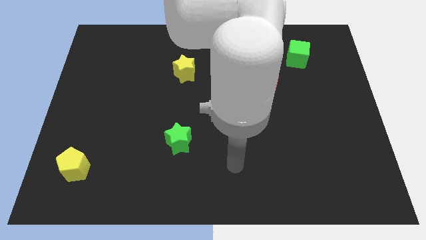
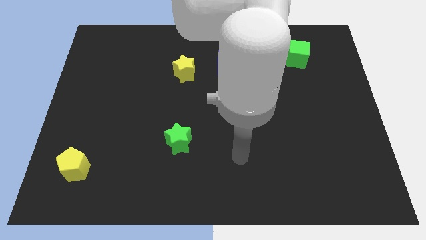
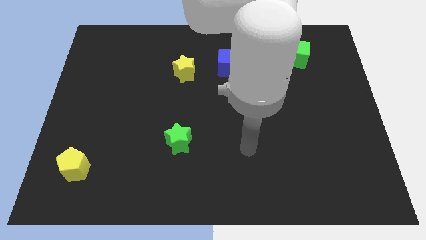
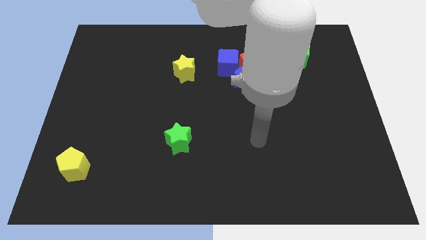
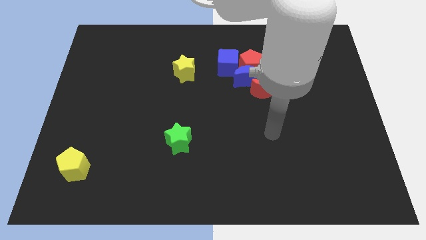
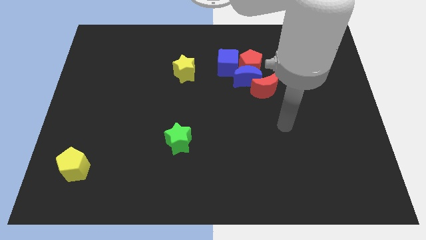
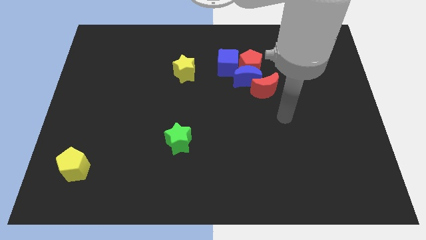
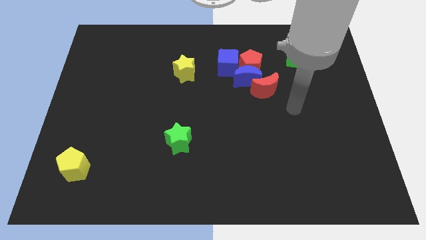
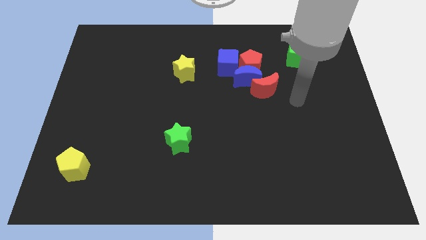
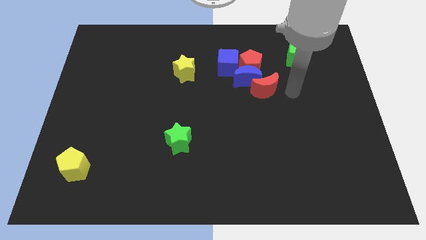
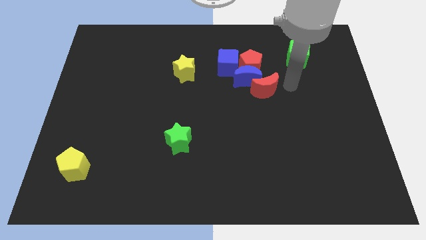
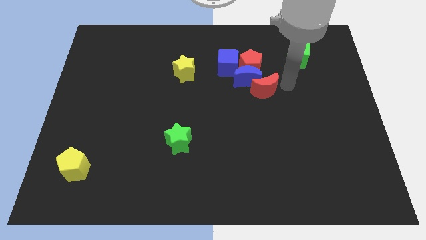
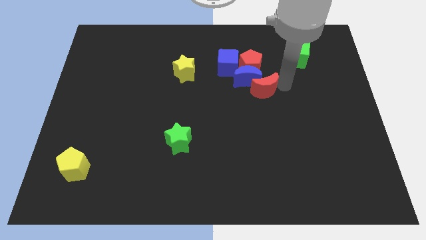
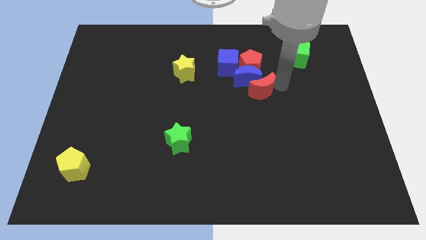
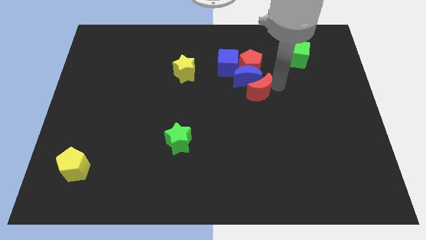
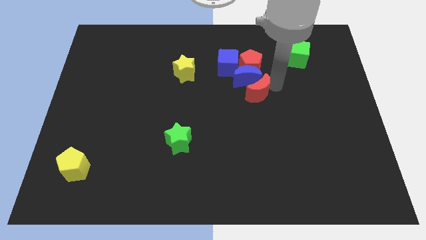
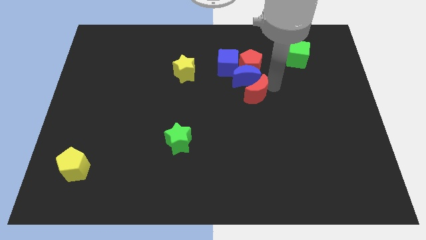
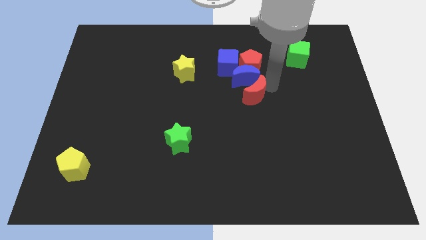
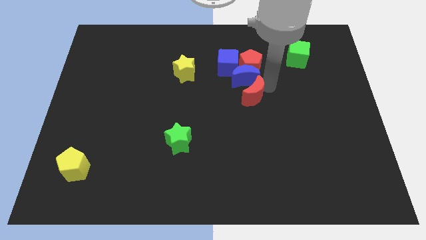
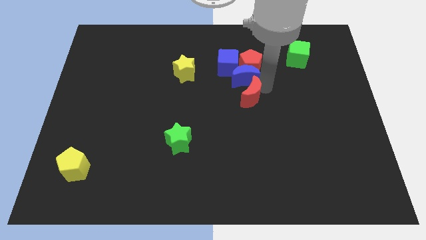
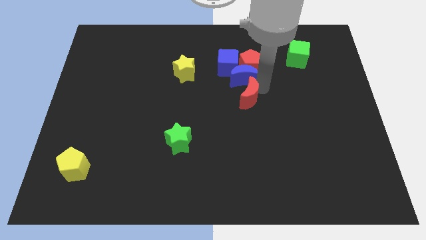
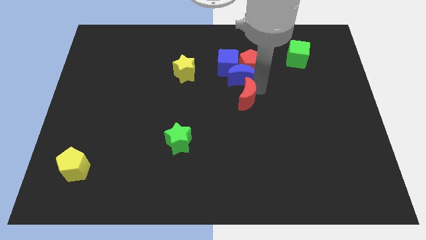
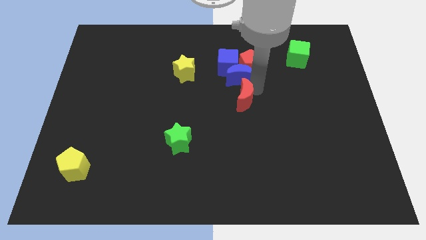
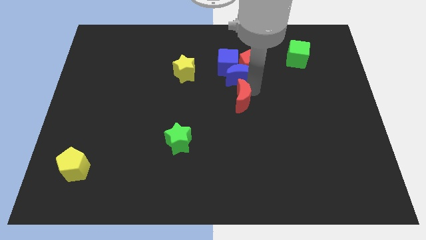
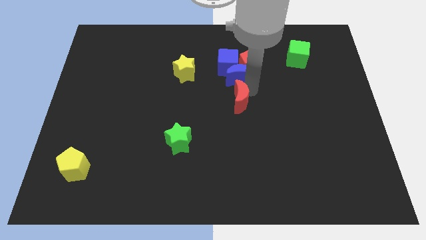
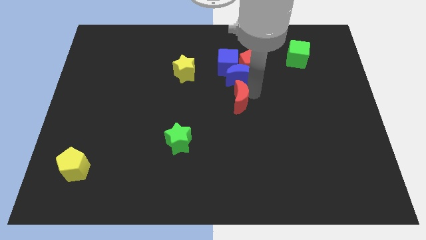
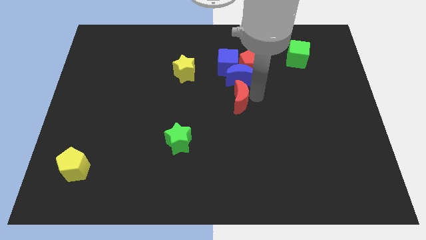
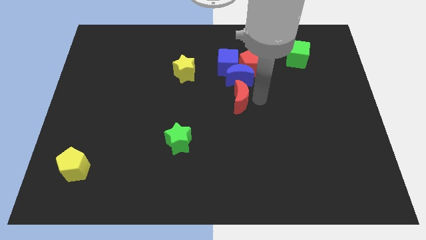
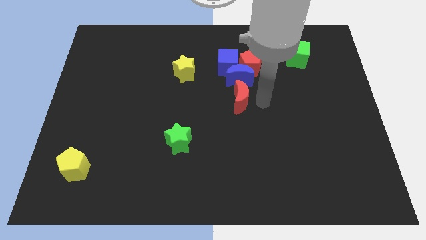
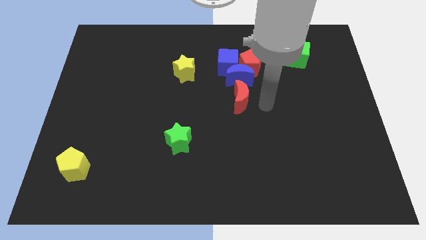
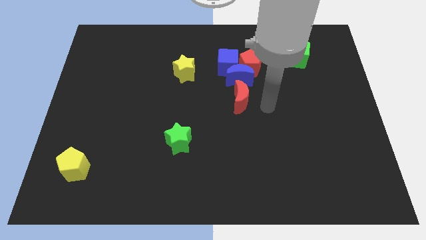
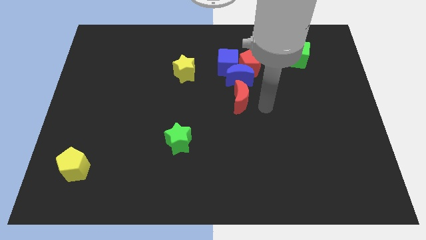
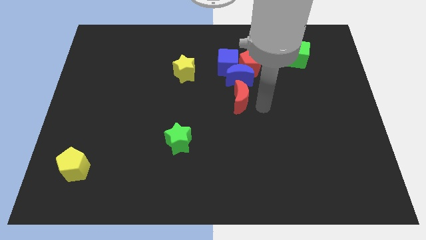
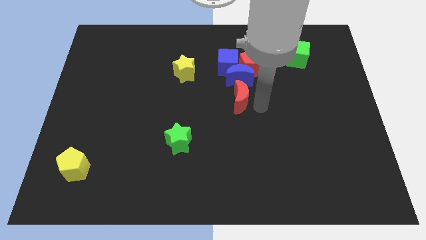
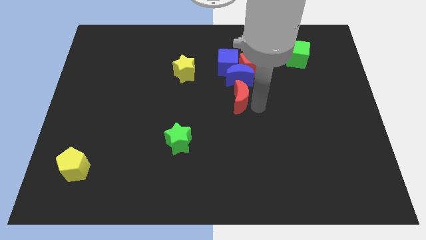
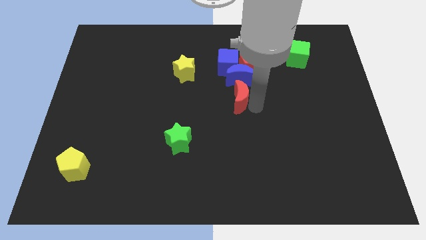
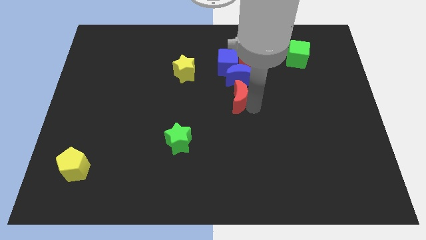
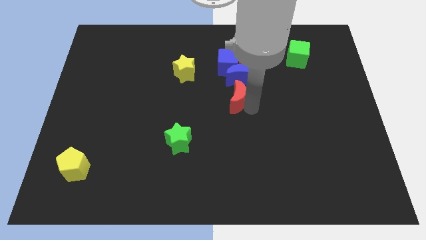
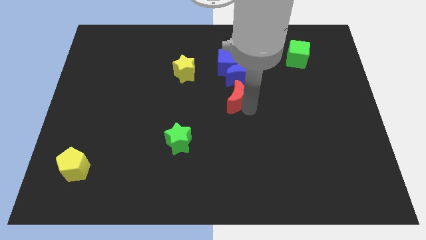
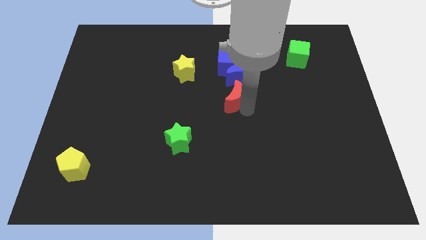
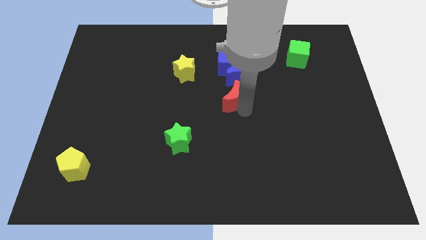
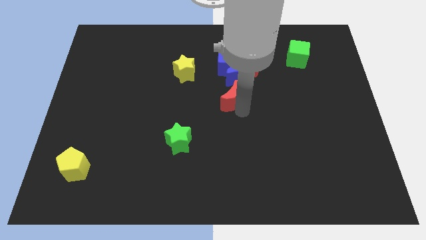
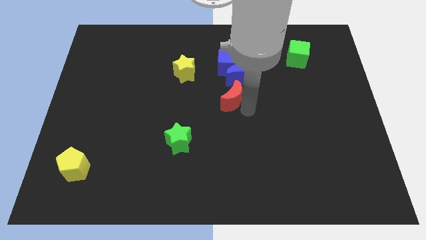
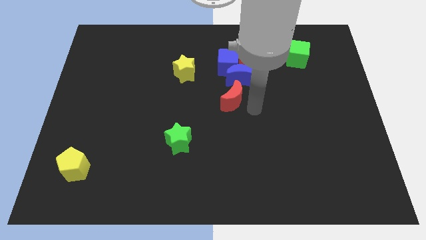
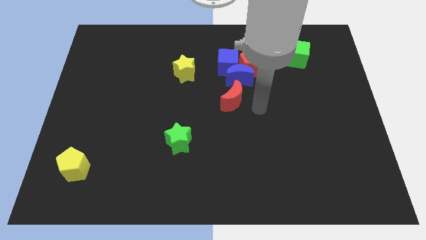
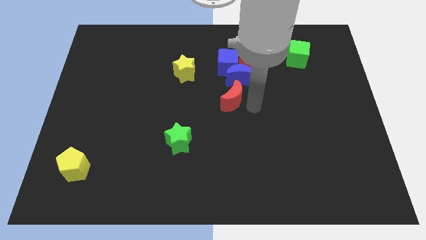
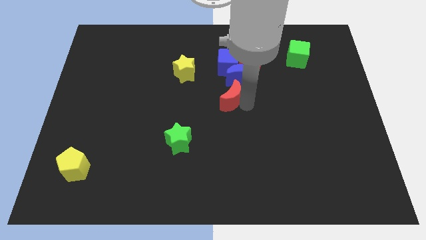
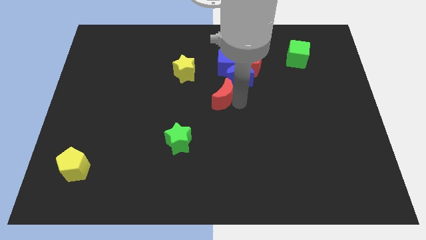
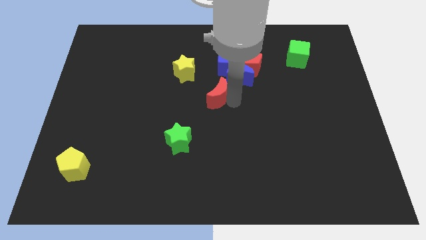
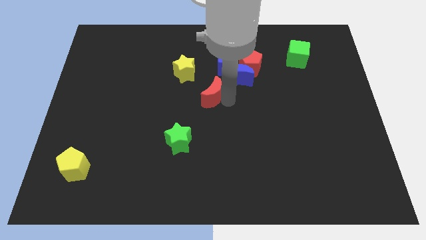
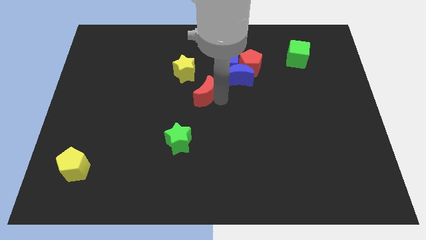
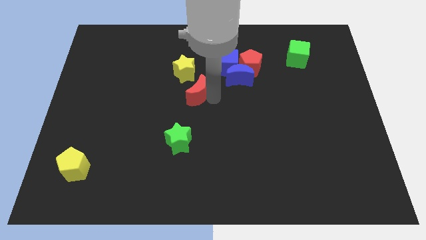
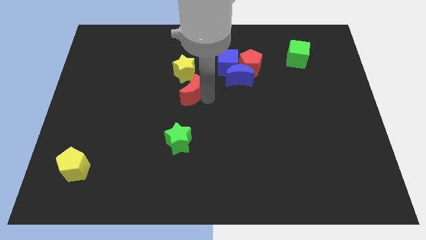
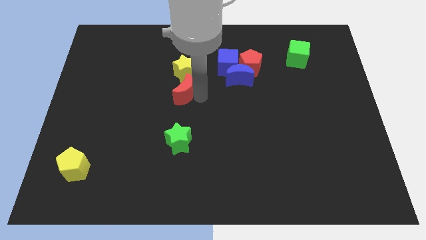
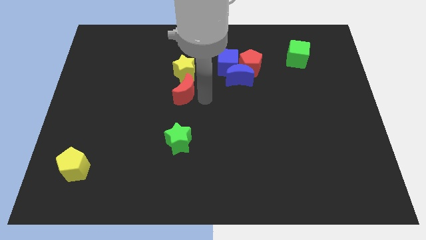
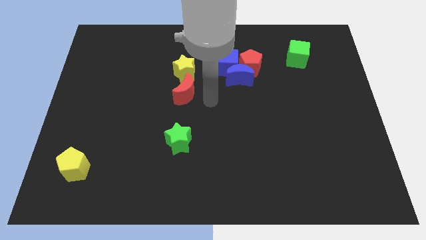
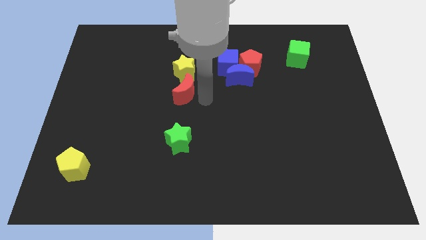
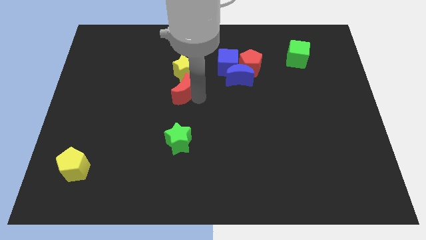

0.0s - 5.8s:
move the red moon to the bottom left side of the yellow star
